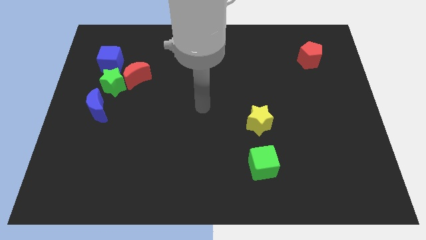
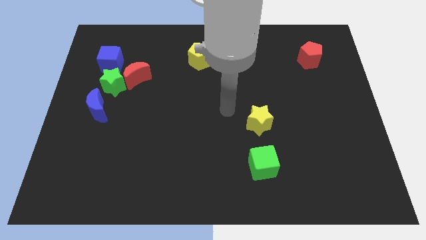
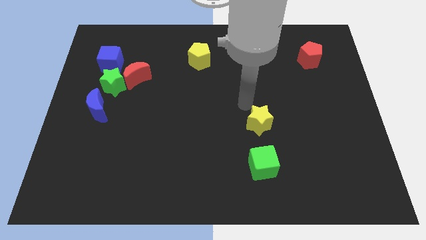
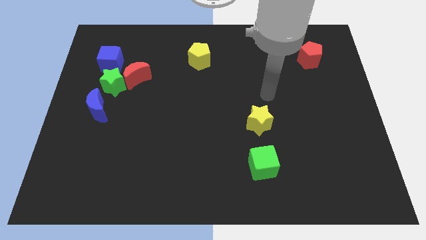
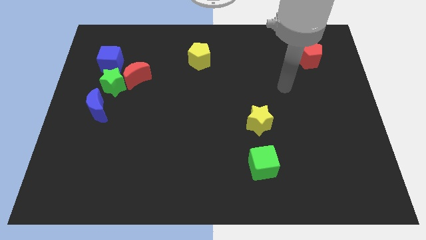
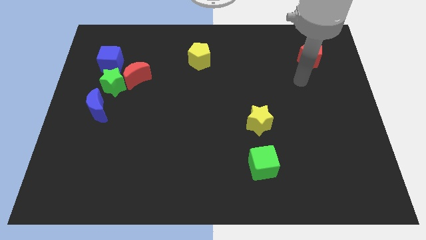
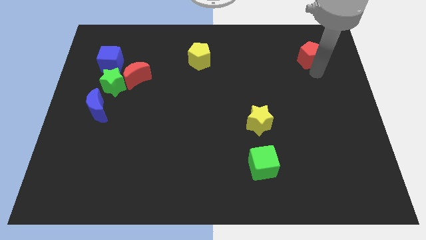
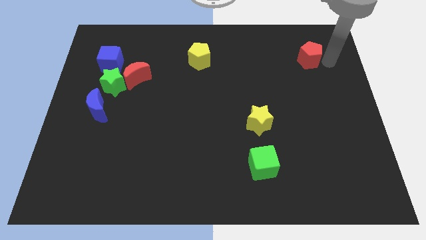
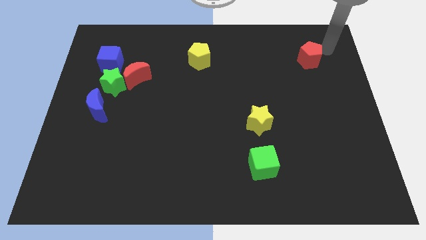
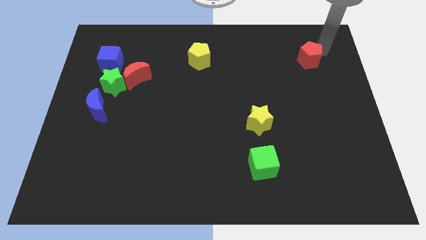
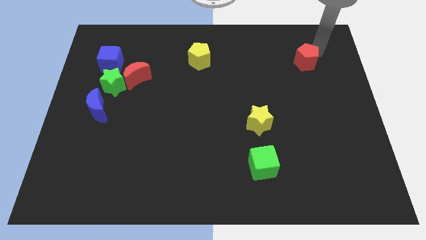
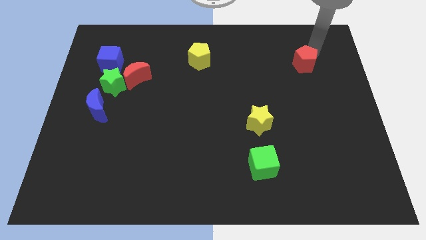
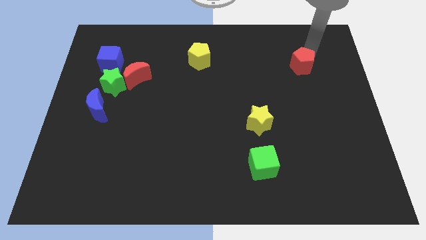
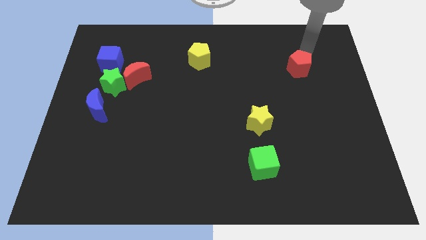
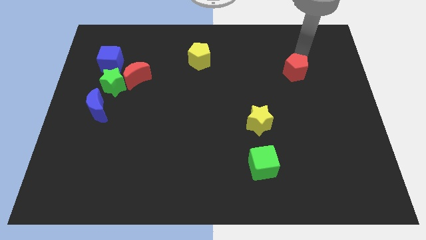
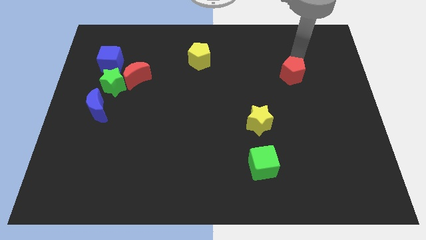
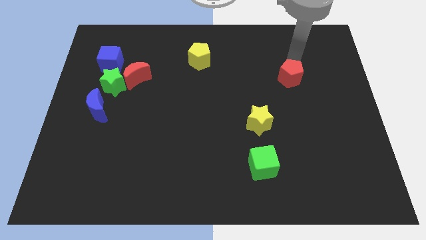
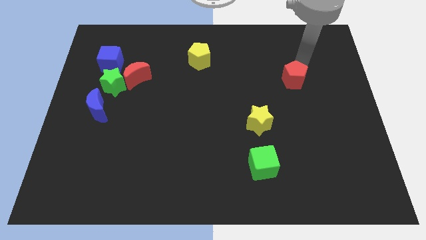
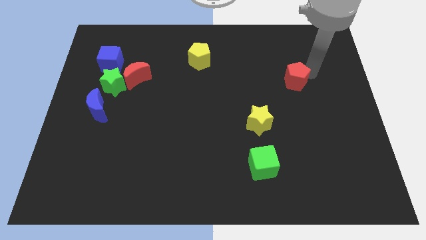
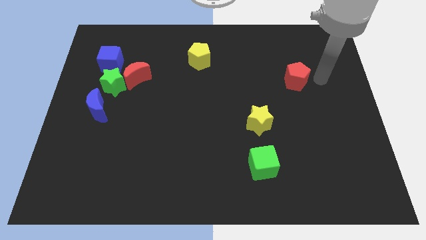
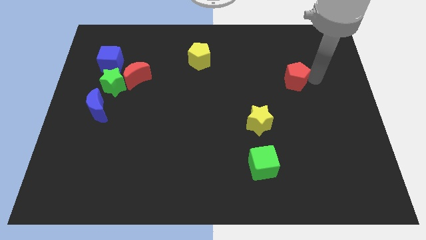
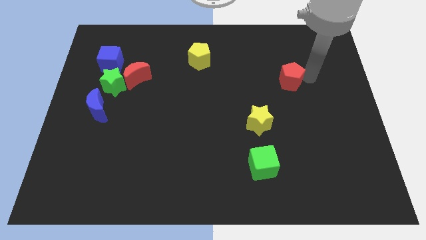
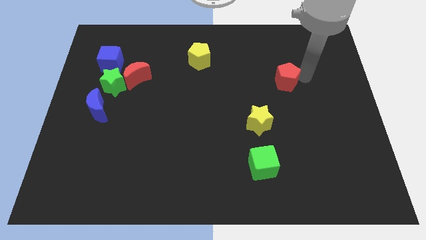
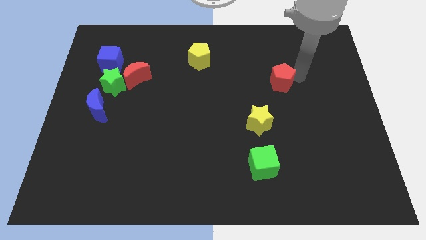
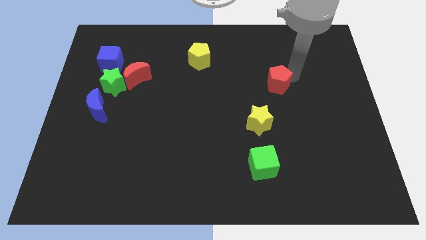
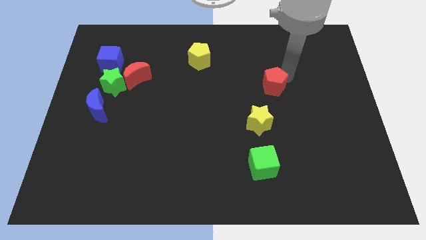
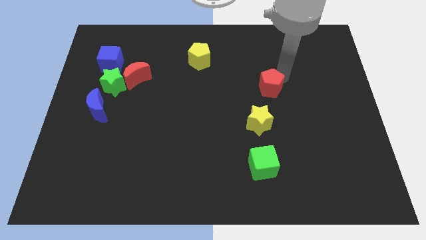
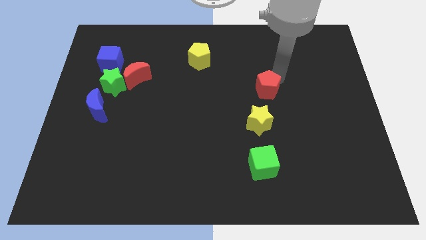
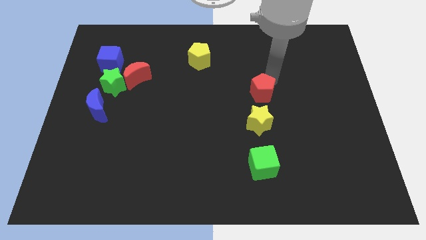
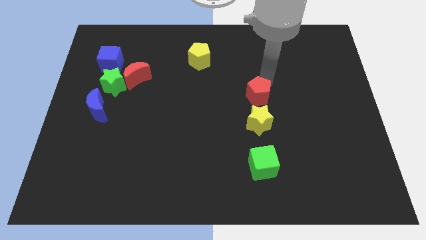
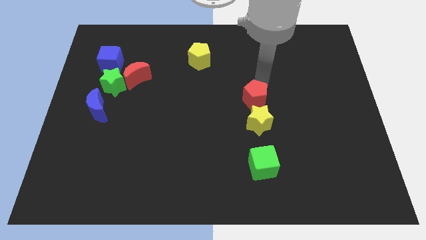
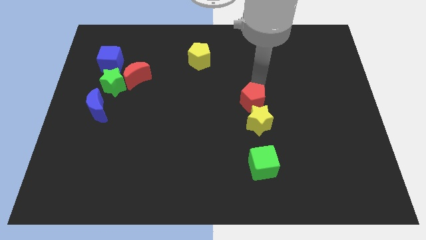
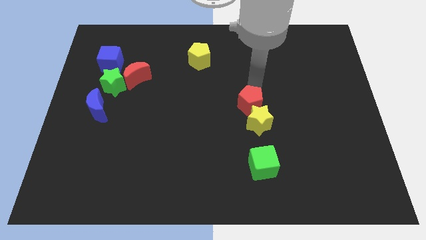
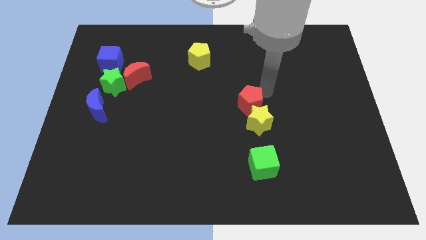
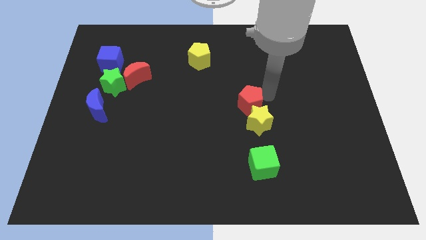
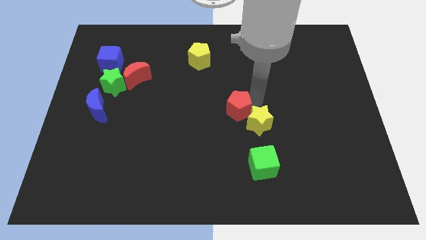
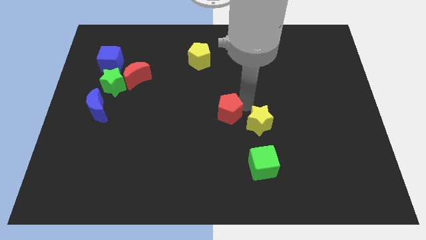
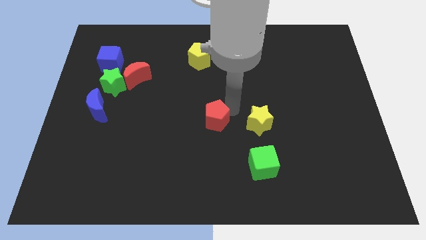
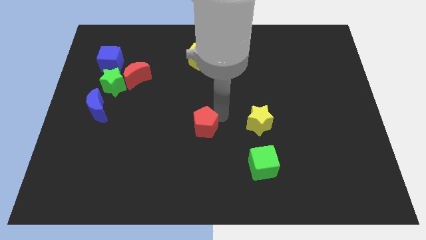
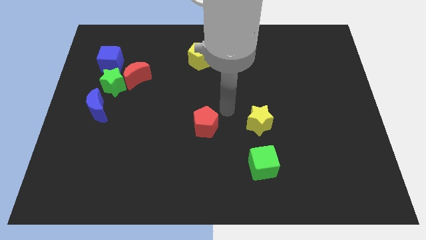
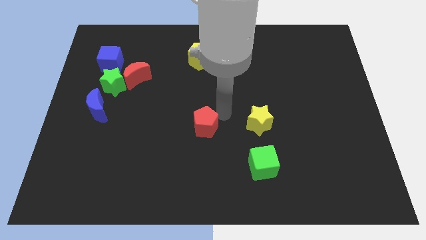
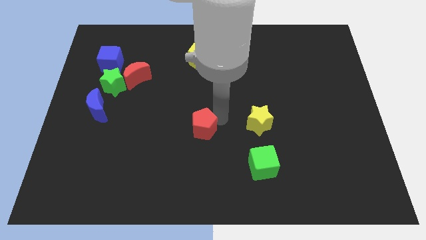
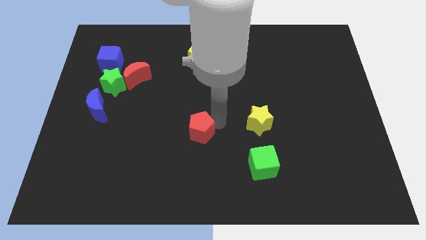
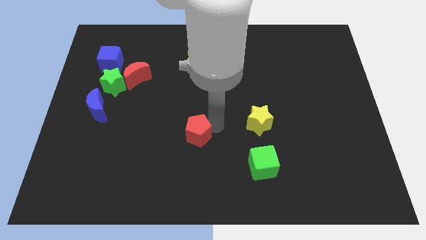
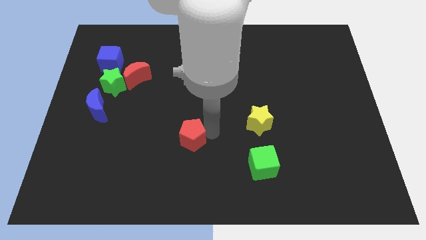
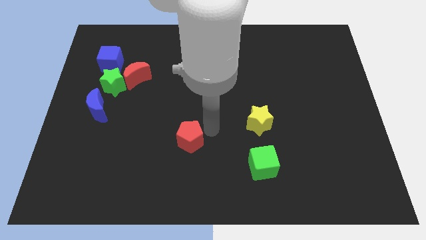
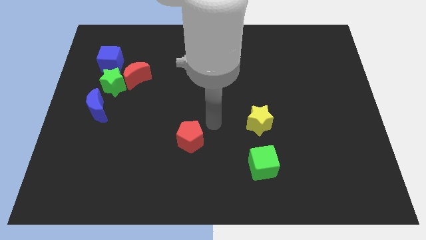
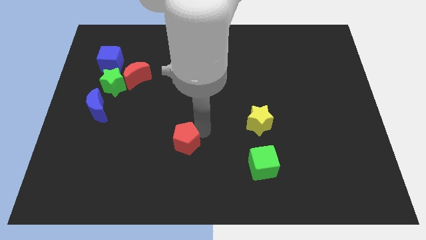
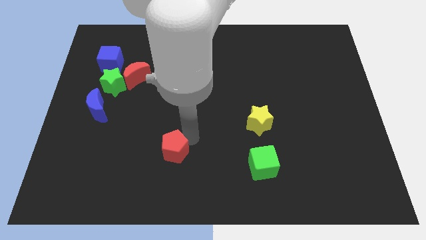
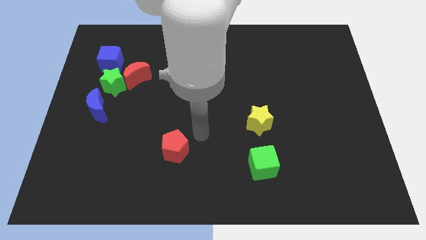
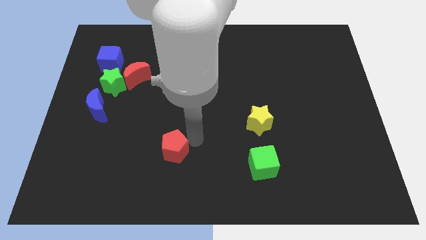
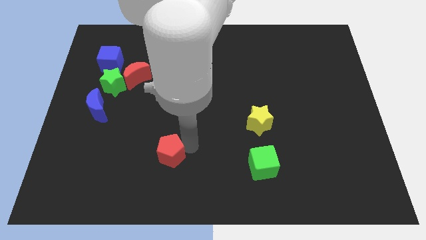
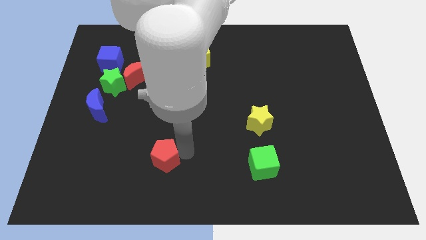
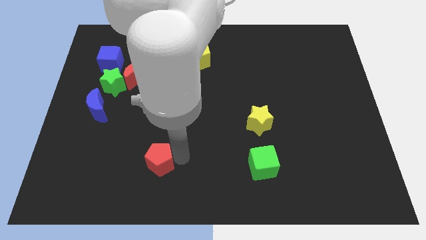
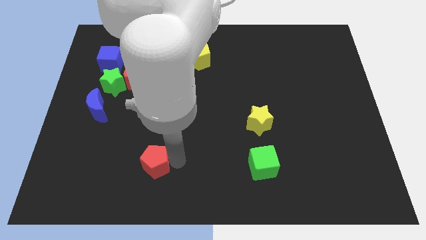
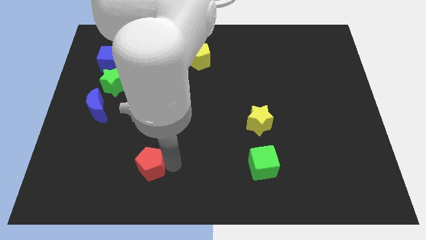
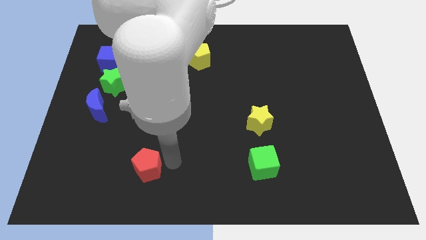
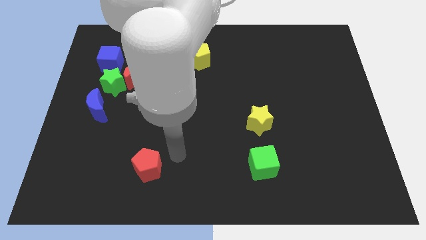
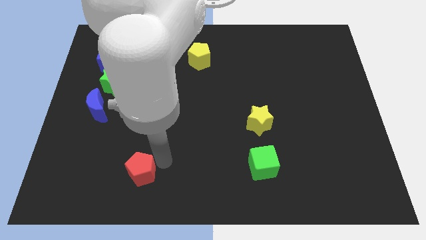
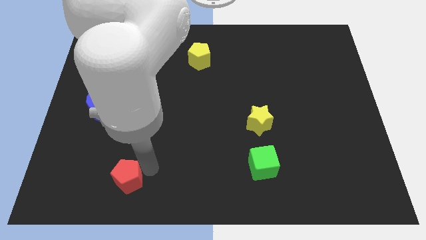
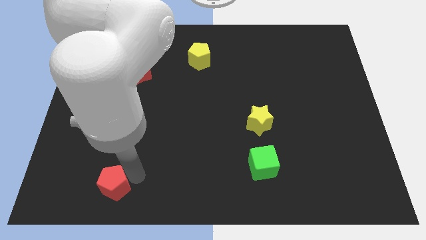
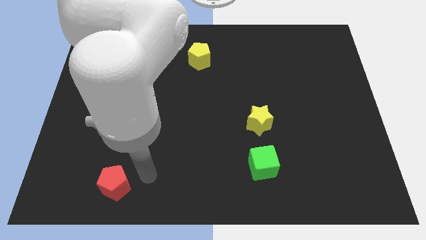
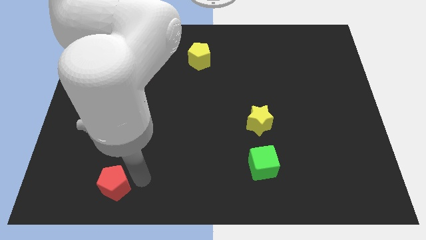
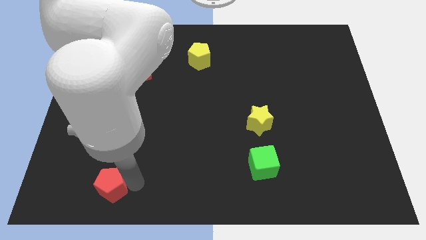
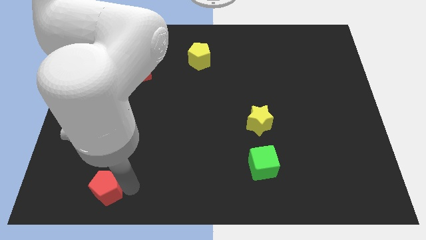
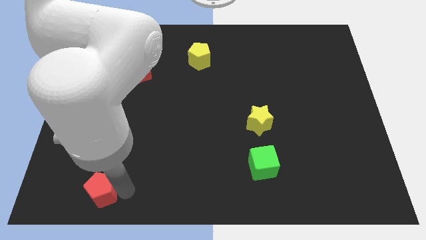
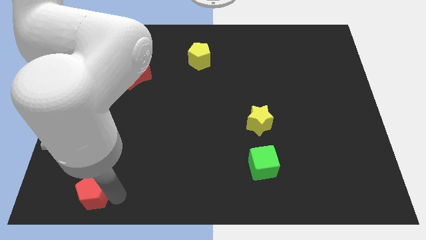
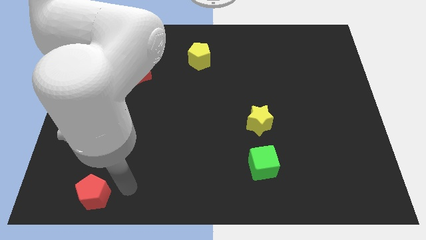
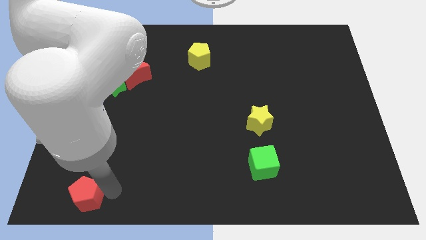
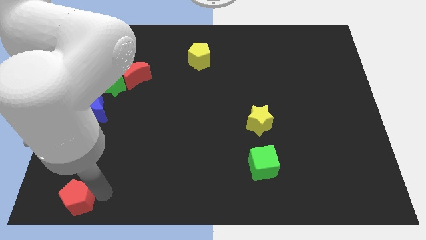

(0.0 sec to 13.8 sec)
slide the red pentagon to the lower left corner
